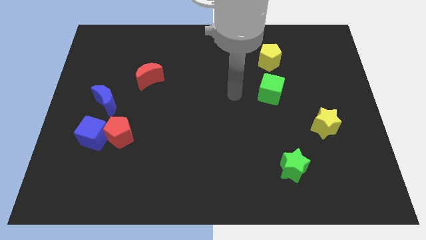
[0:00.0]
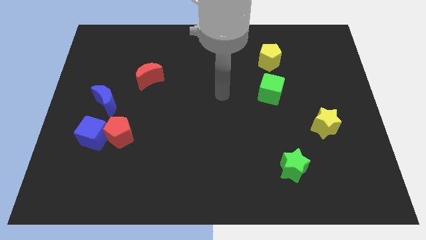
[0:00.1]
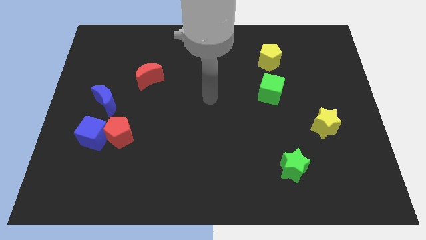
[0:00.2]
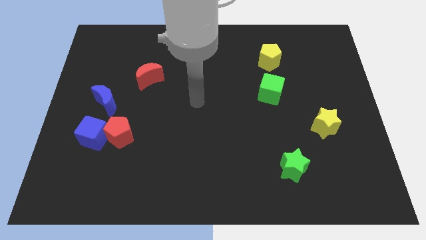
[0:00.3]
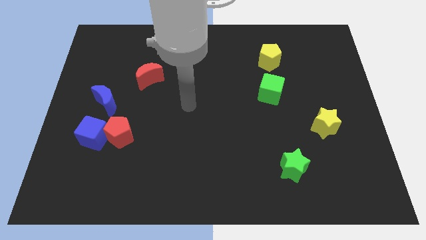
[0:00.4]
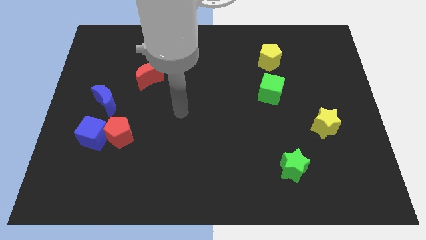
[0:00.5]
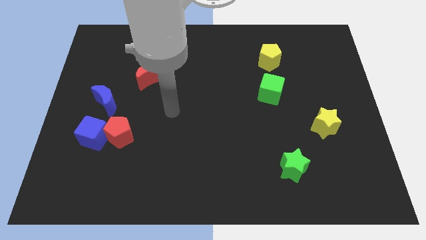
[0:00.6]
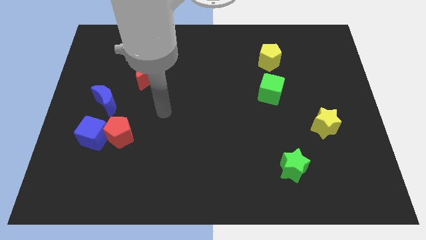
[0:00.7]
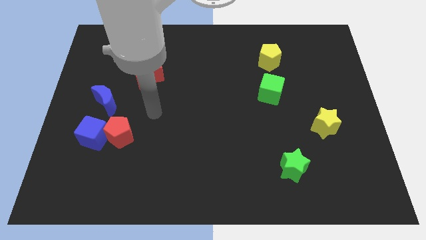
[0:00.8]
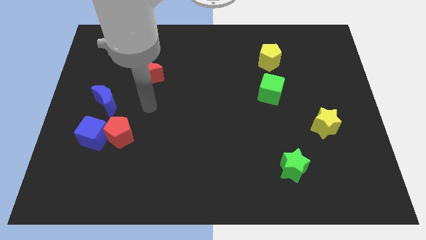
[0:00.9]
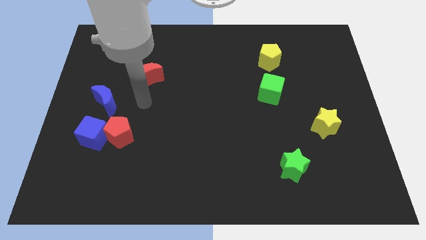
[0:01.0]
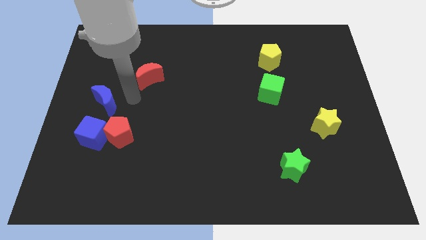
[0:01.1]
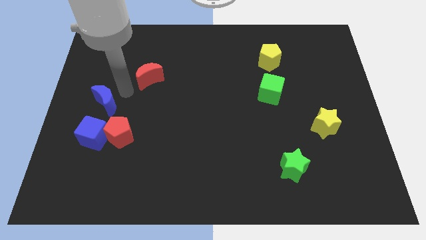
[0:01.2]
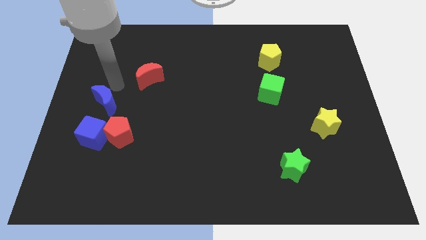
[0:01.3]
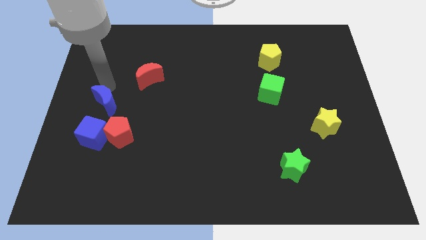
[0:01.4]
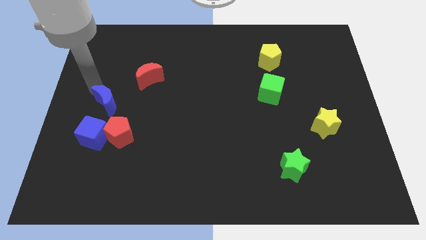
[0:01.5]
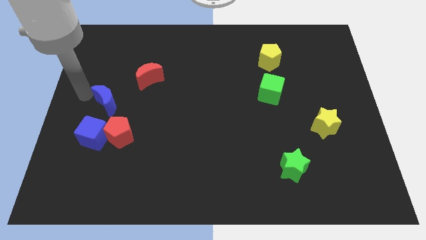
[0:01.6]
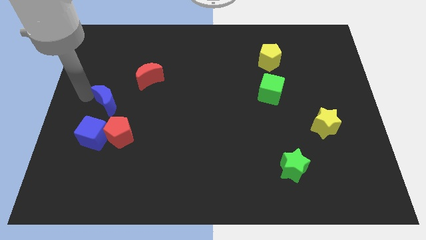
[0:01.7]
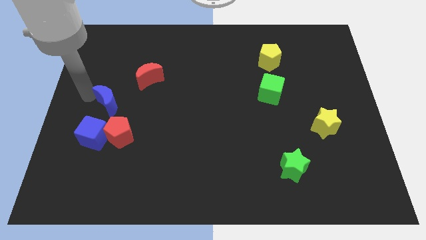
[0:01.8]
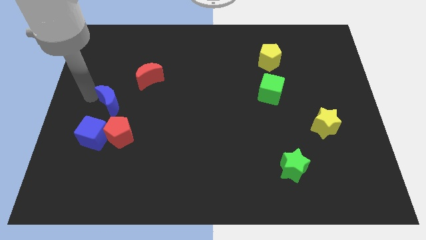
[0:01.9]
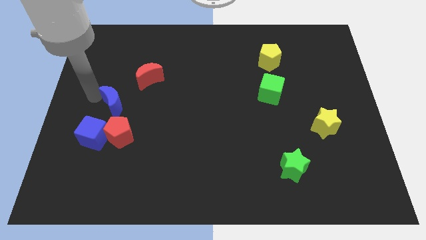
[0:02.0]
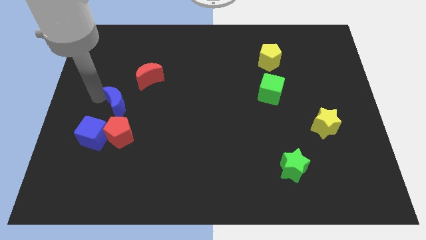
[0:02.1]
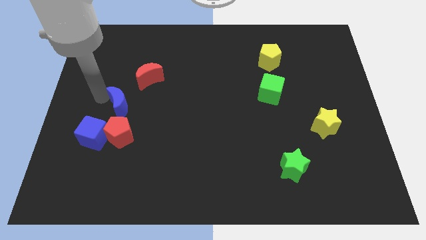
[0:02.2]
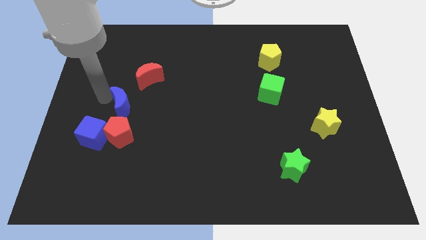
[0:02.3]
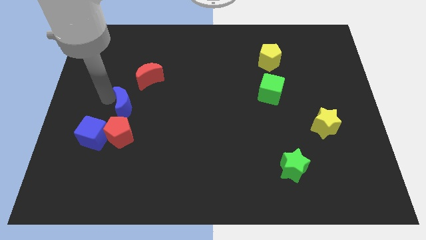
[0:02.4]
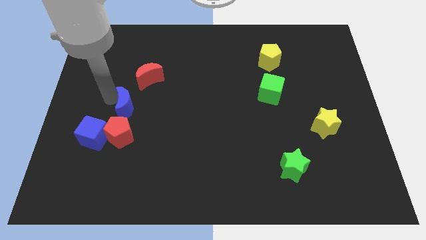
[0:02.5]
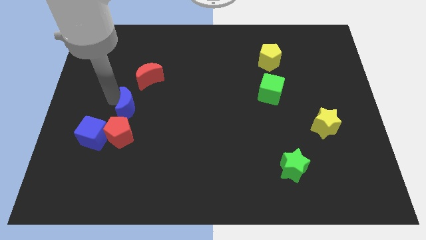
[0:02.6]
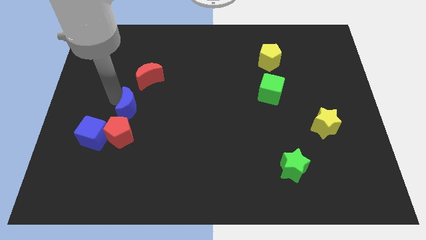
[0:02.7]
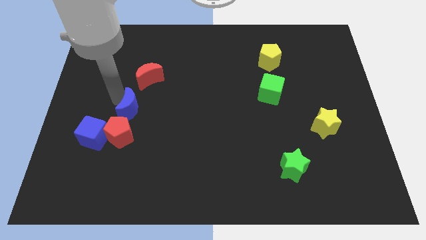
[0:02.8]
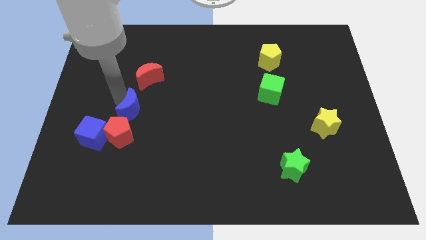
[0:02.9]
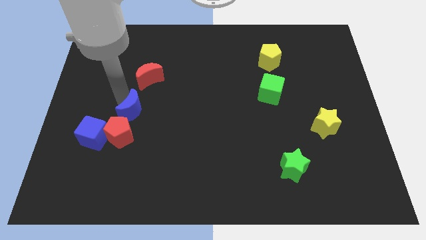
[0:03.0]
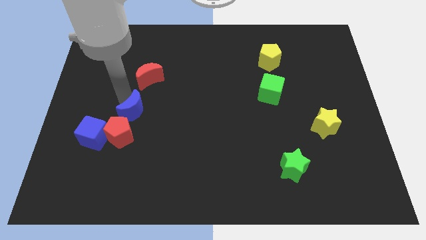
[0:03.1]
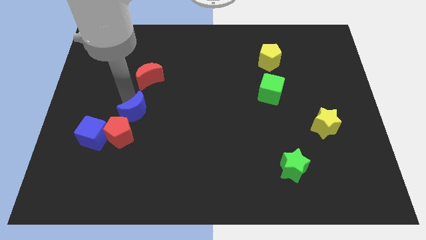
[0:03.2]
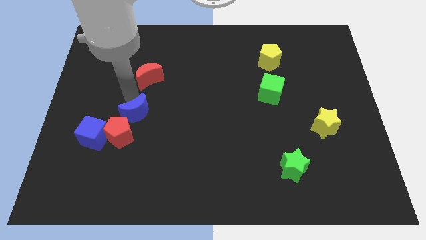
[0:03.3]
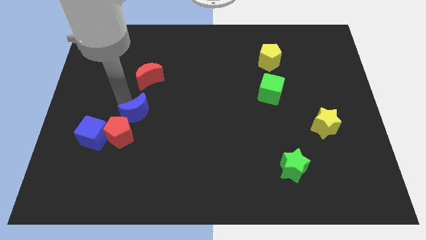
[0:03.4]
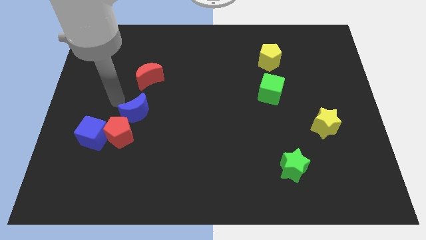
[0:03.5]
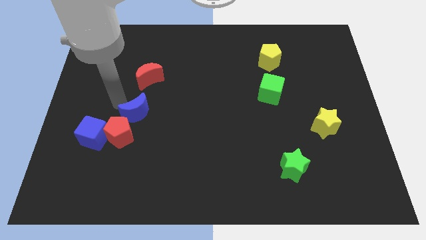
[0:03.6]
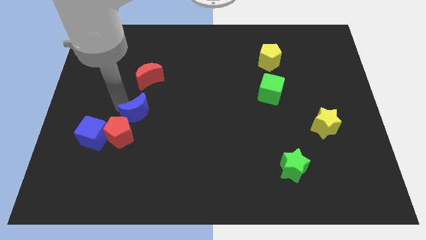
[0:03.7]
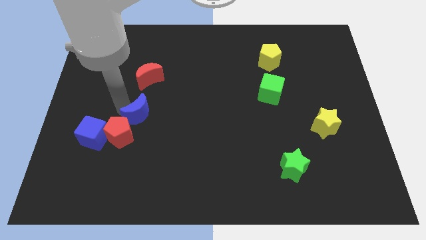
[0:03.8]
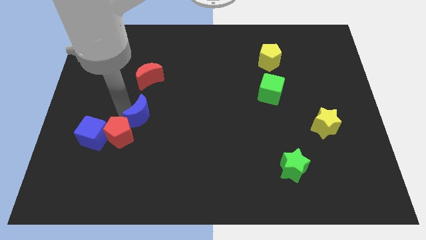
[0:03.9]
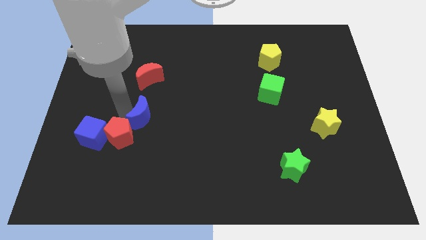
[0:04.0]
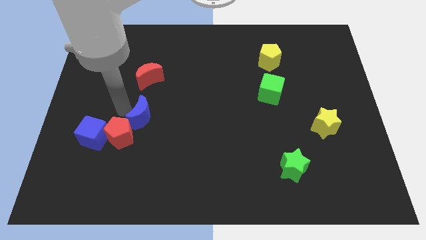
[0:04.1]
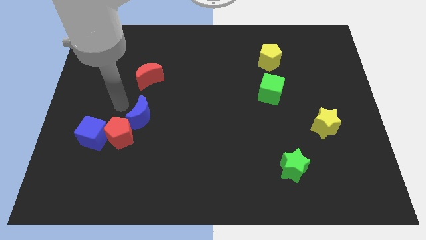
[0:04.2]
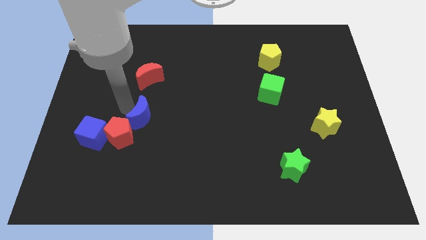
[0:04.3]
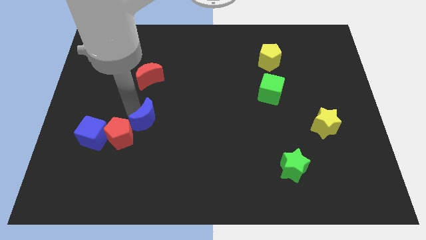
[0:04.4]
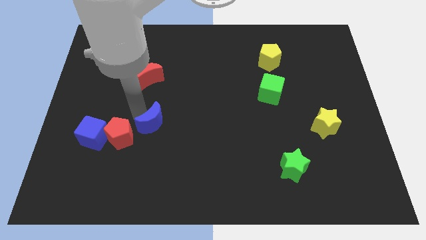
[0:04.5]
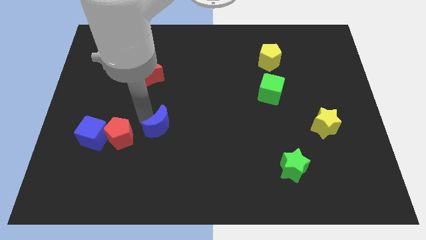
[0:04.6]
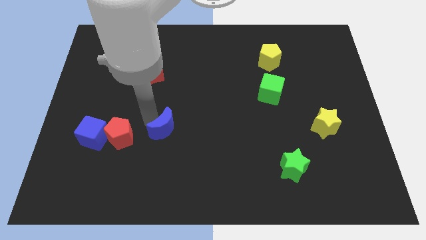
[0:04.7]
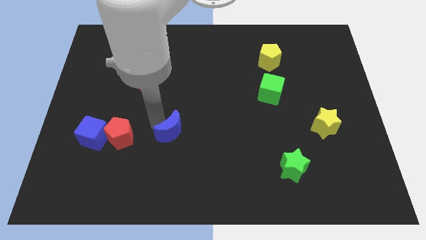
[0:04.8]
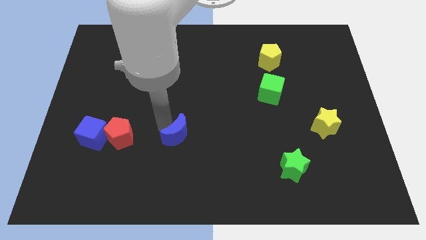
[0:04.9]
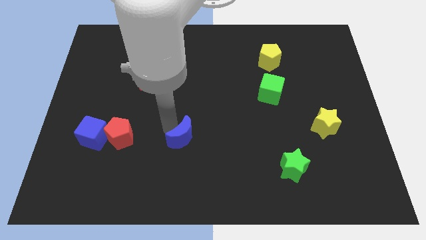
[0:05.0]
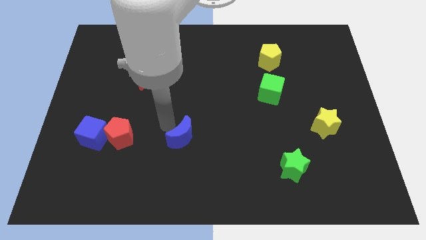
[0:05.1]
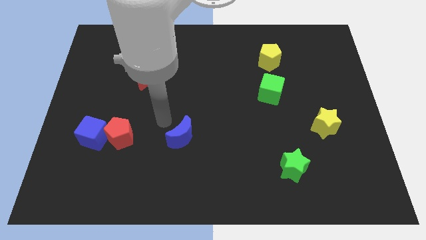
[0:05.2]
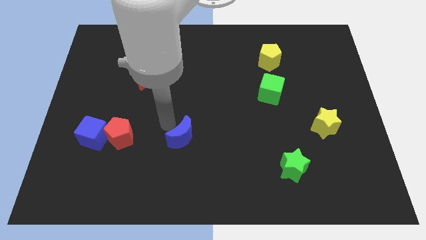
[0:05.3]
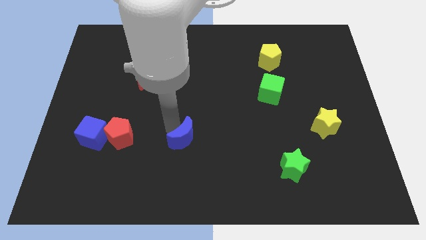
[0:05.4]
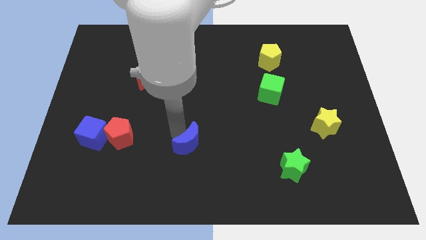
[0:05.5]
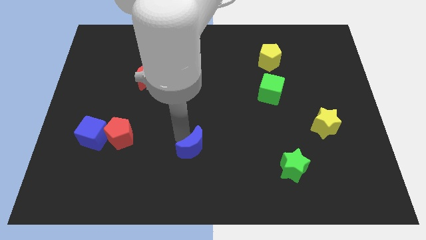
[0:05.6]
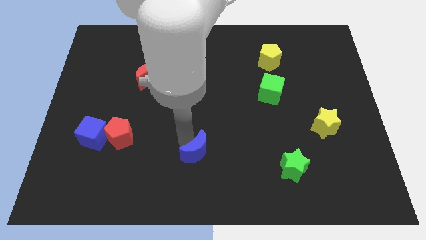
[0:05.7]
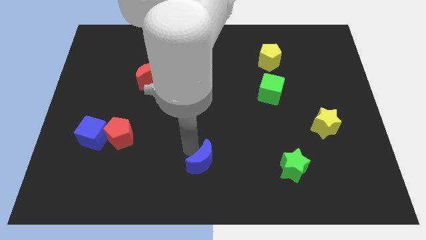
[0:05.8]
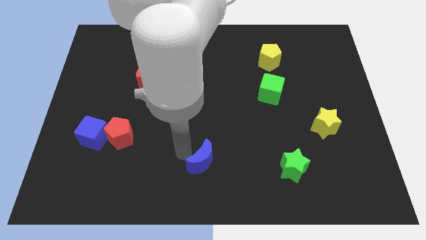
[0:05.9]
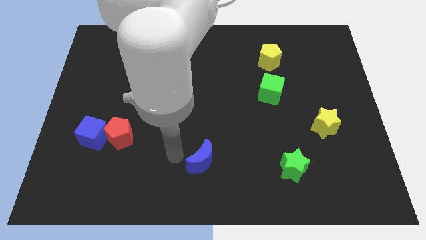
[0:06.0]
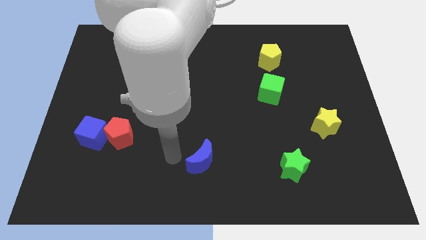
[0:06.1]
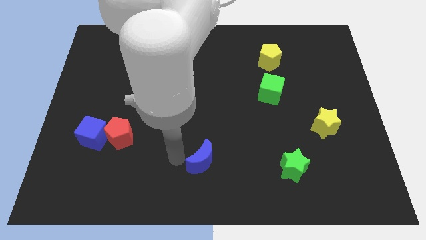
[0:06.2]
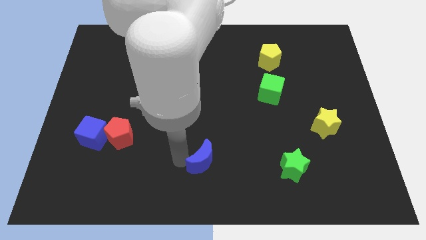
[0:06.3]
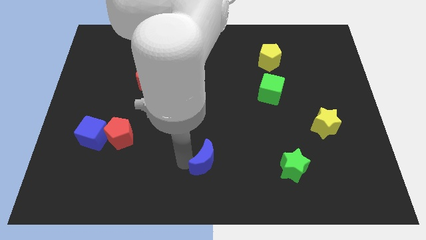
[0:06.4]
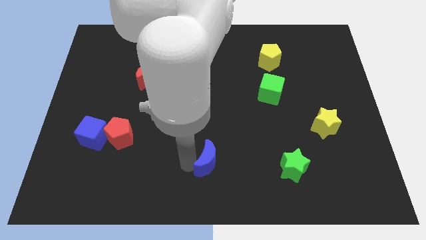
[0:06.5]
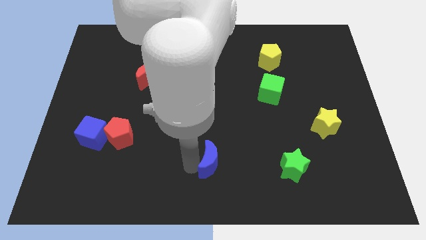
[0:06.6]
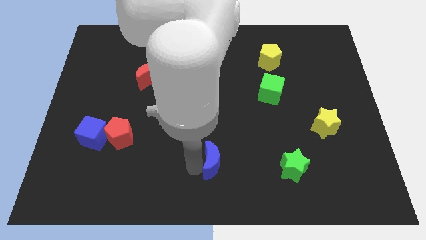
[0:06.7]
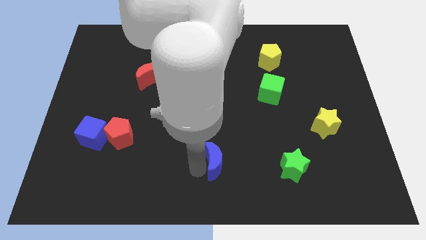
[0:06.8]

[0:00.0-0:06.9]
move the blue moon just left of the green star

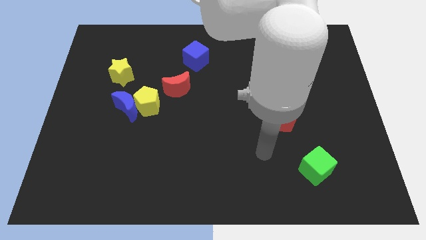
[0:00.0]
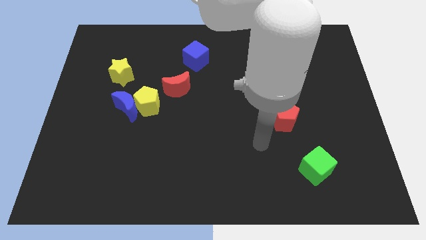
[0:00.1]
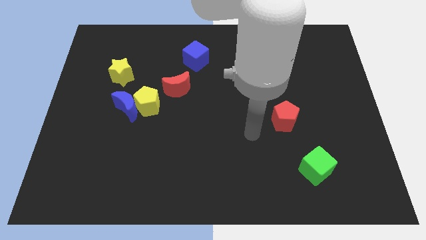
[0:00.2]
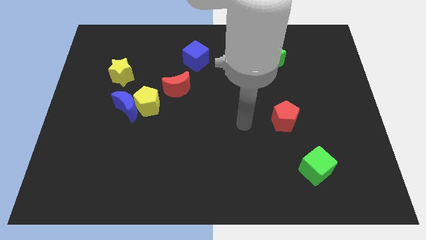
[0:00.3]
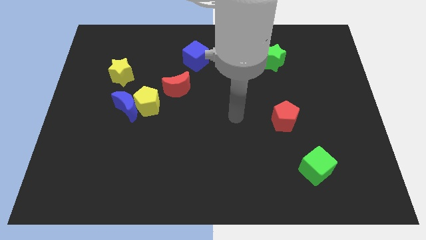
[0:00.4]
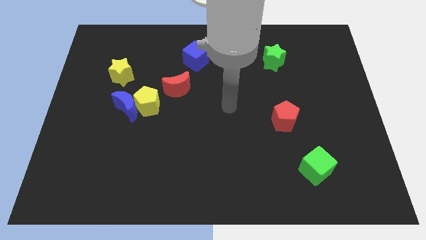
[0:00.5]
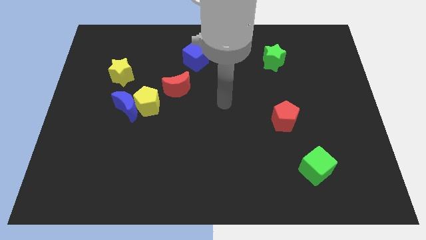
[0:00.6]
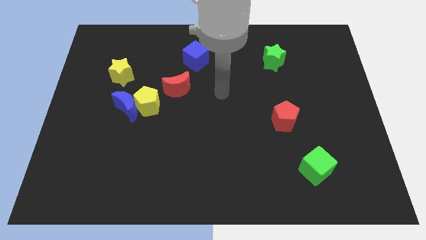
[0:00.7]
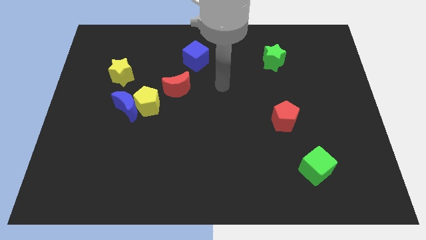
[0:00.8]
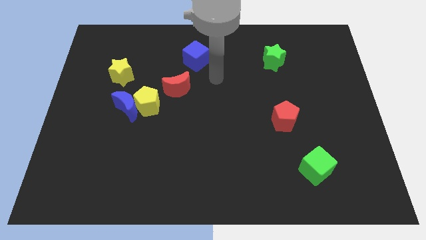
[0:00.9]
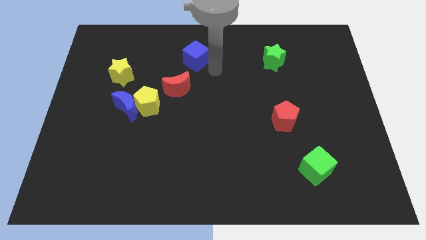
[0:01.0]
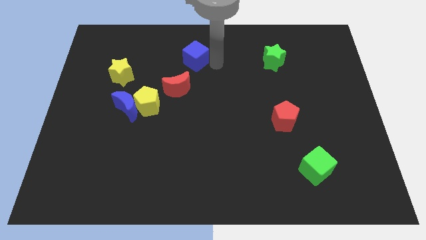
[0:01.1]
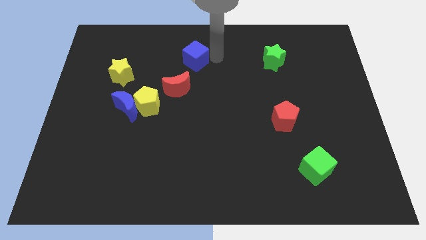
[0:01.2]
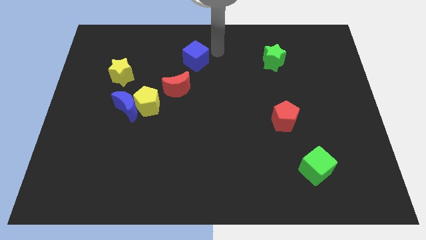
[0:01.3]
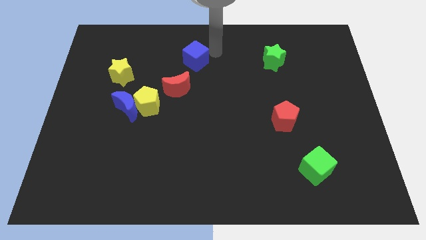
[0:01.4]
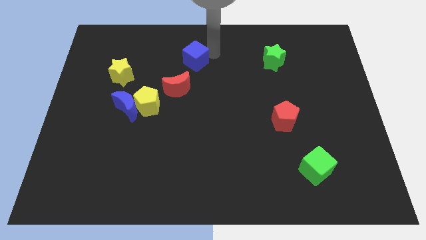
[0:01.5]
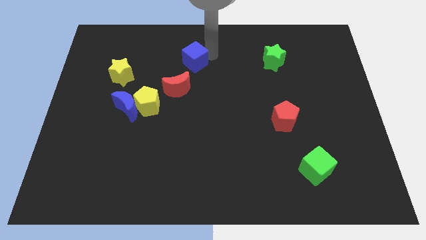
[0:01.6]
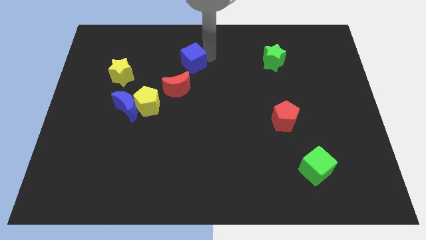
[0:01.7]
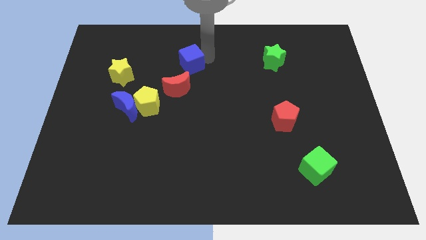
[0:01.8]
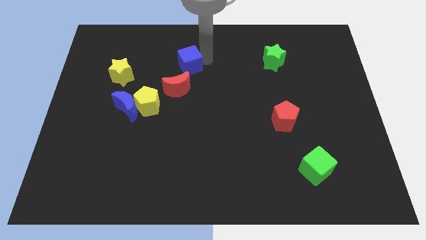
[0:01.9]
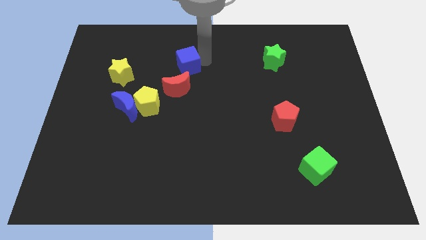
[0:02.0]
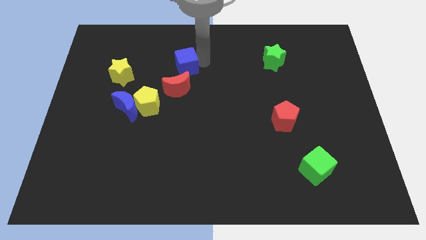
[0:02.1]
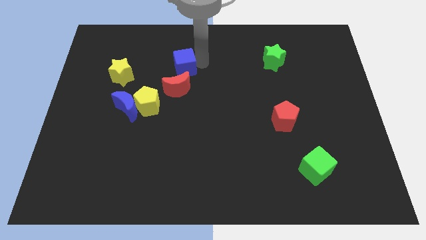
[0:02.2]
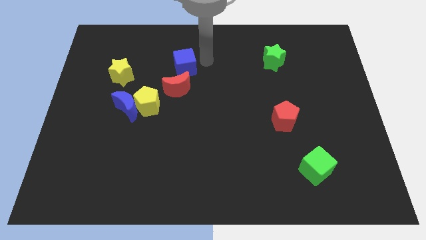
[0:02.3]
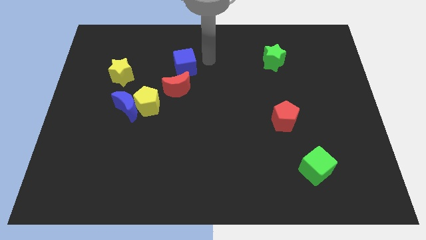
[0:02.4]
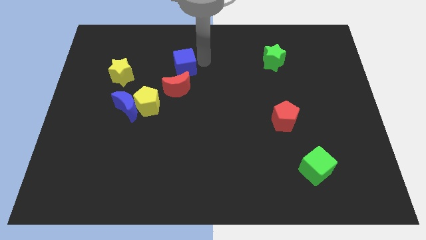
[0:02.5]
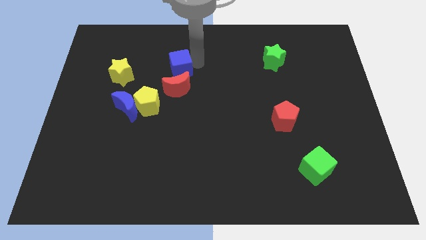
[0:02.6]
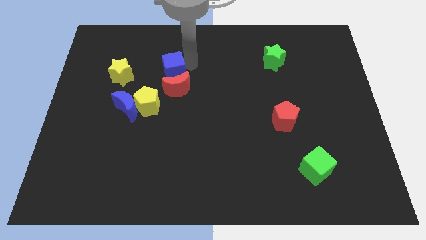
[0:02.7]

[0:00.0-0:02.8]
push the blue cube to the top left of the red moon
